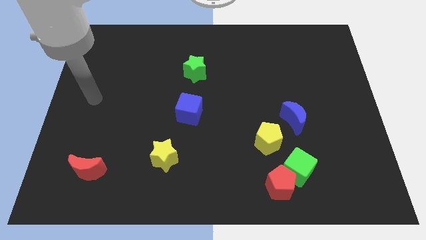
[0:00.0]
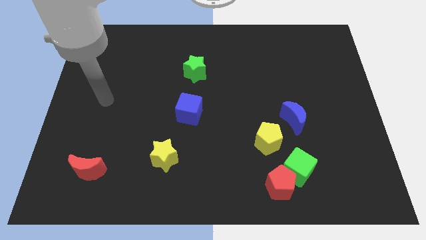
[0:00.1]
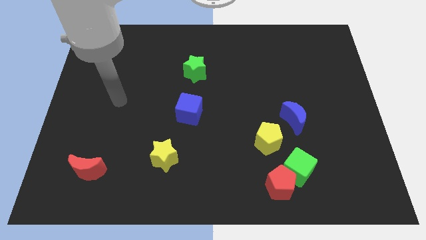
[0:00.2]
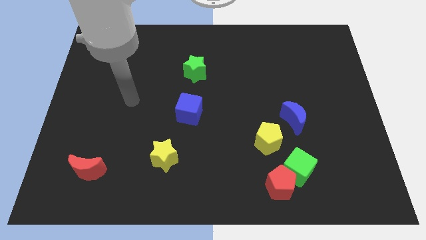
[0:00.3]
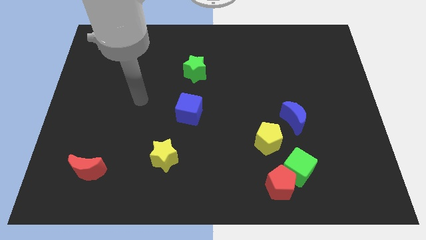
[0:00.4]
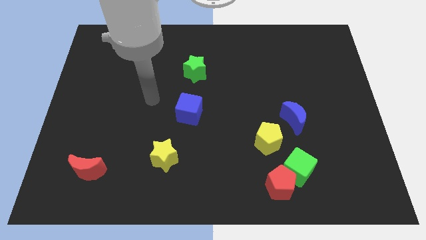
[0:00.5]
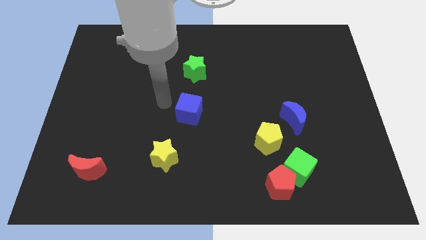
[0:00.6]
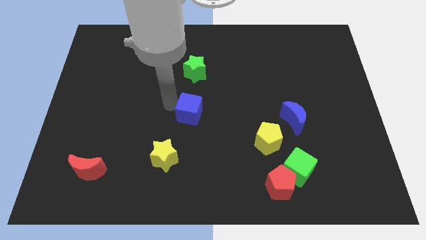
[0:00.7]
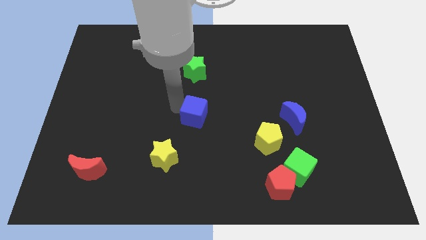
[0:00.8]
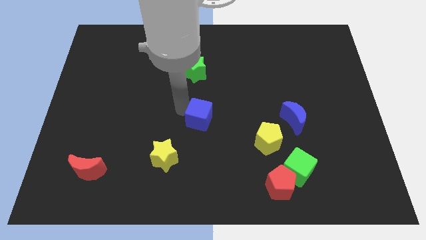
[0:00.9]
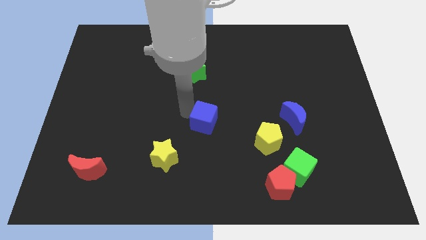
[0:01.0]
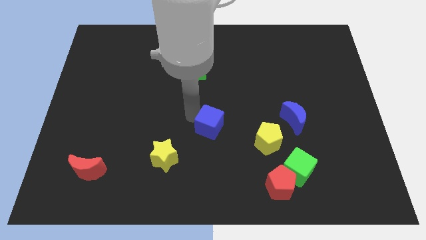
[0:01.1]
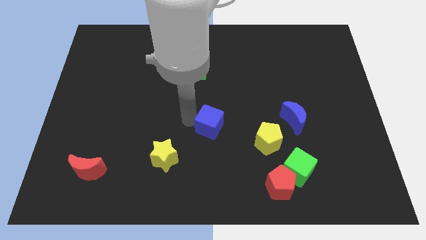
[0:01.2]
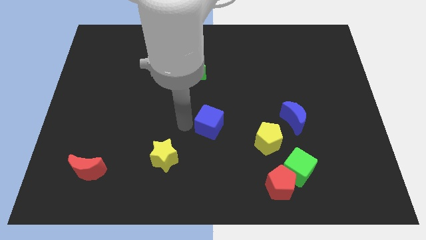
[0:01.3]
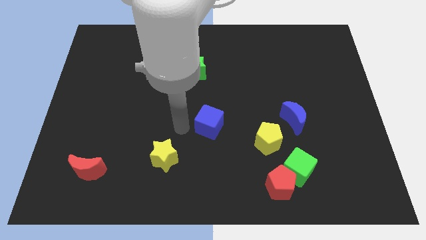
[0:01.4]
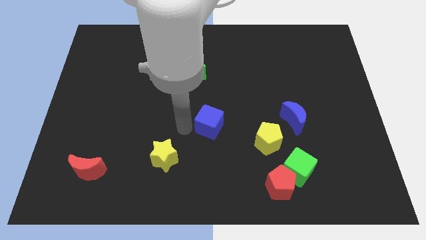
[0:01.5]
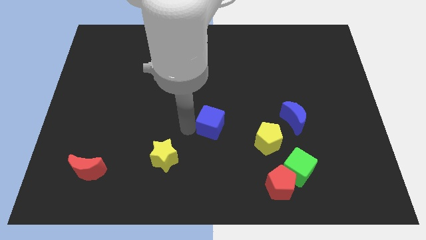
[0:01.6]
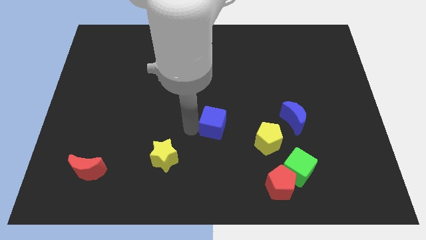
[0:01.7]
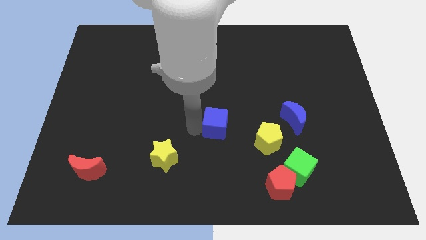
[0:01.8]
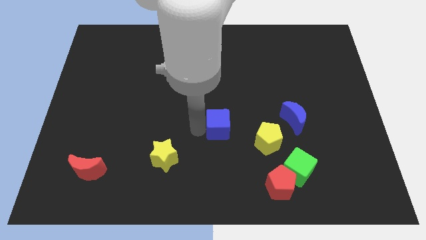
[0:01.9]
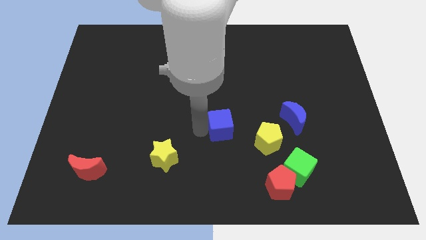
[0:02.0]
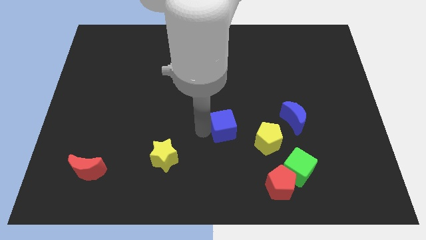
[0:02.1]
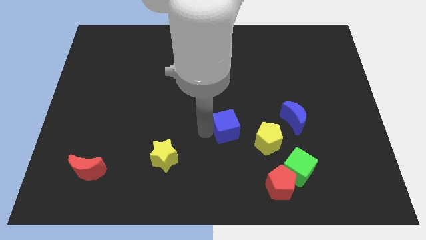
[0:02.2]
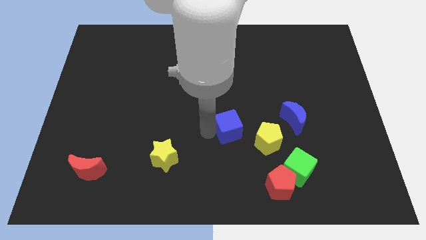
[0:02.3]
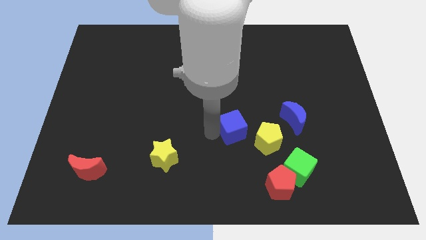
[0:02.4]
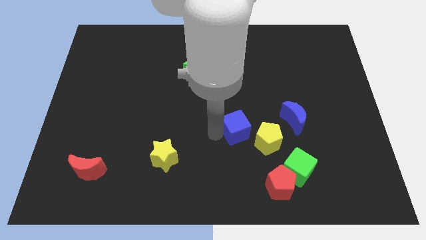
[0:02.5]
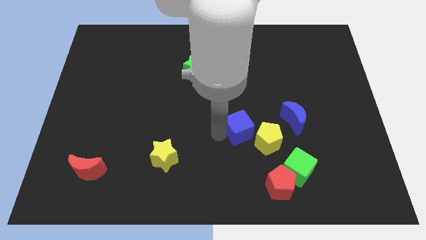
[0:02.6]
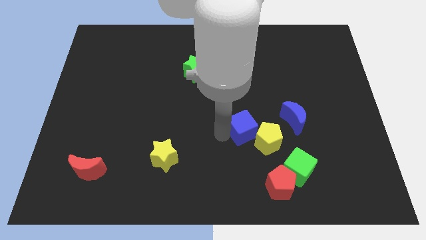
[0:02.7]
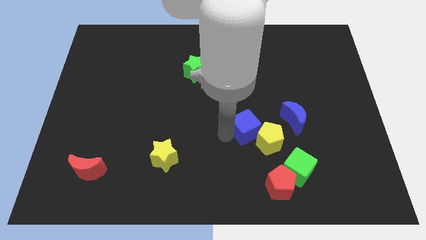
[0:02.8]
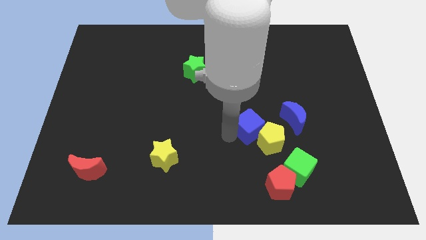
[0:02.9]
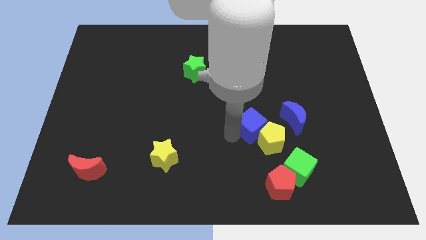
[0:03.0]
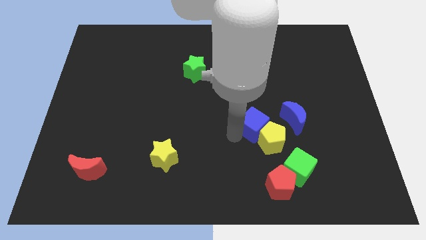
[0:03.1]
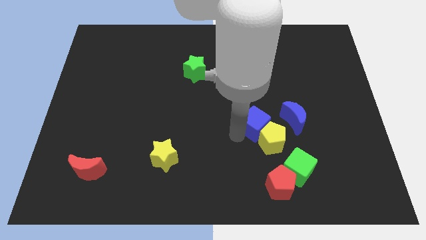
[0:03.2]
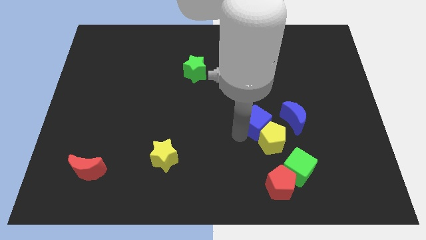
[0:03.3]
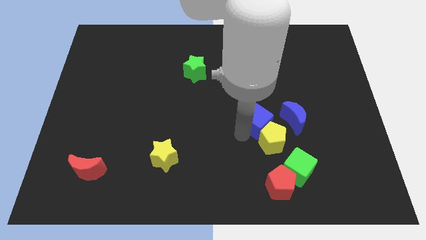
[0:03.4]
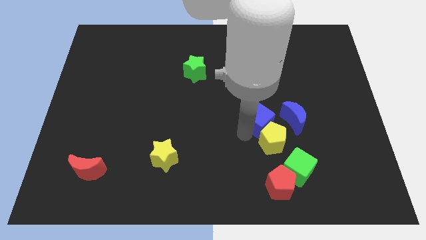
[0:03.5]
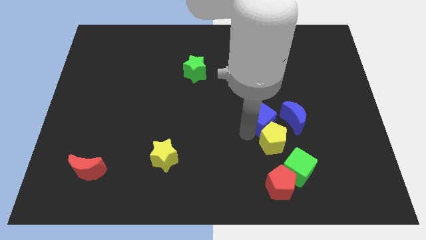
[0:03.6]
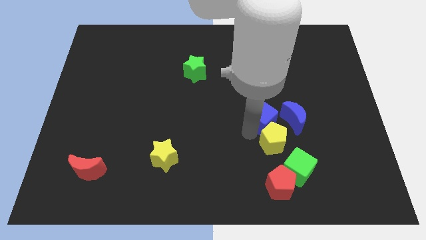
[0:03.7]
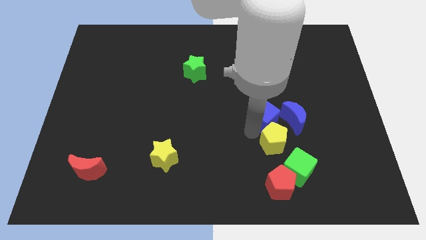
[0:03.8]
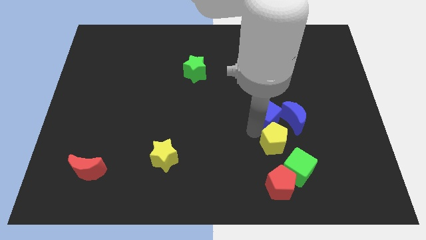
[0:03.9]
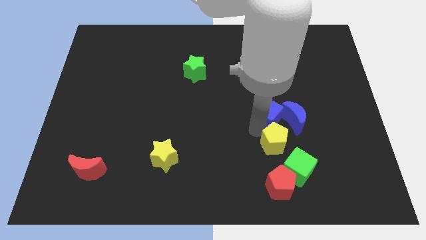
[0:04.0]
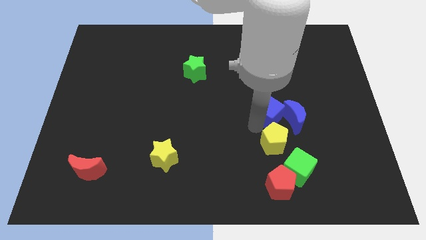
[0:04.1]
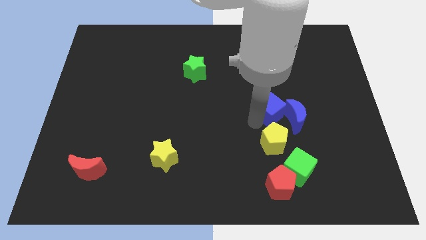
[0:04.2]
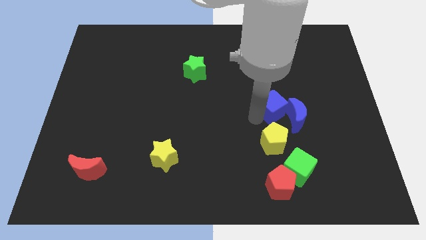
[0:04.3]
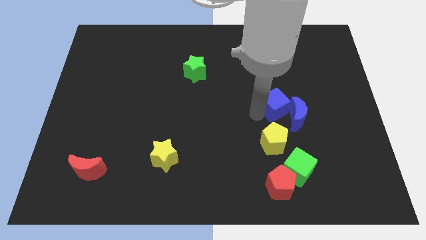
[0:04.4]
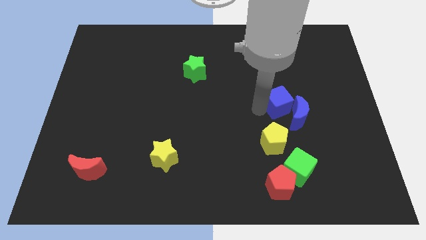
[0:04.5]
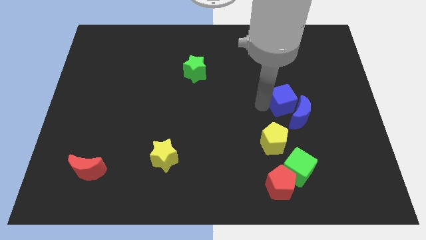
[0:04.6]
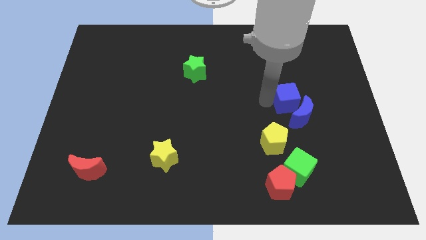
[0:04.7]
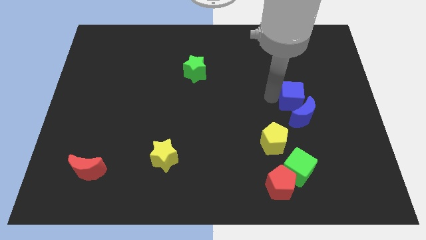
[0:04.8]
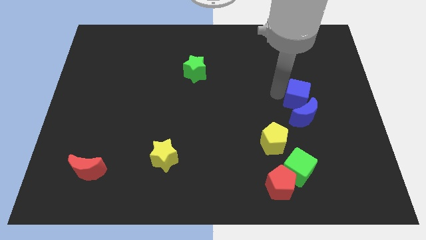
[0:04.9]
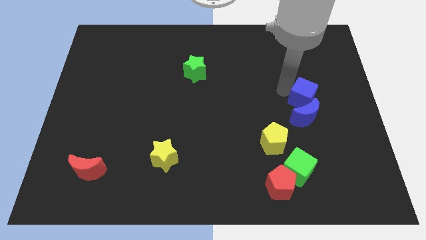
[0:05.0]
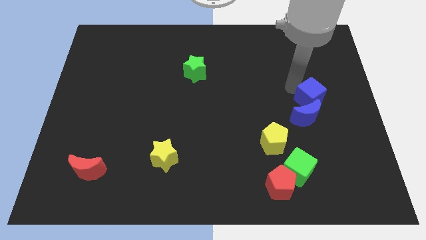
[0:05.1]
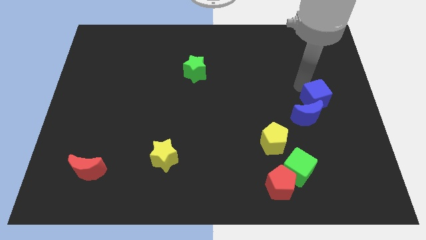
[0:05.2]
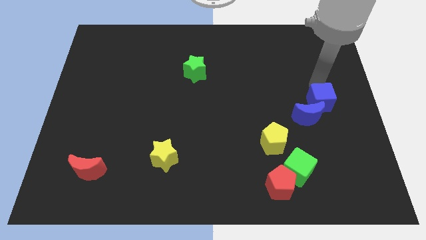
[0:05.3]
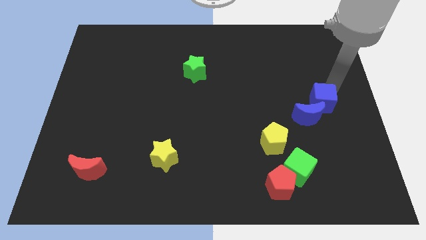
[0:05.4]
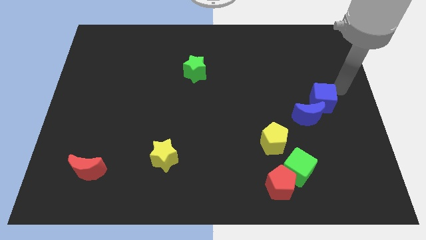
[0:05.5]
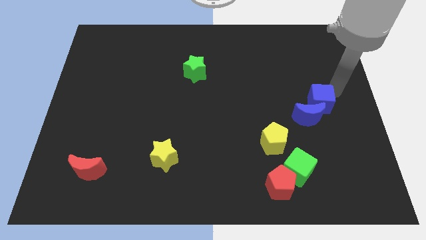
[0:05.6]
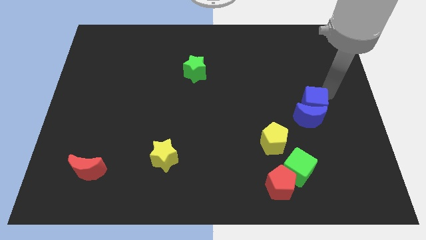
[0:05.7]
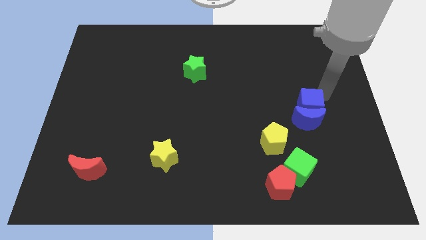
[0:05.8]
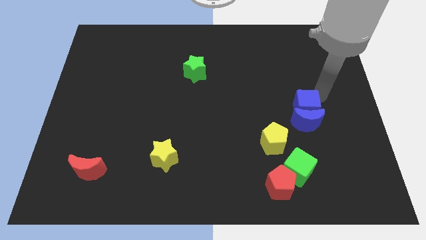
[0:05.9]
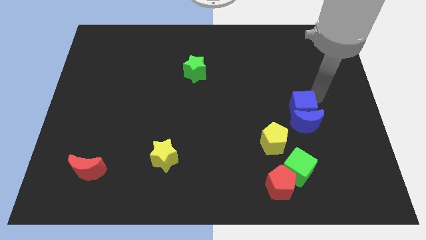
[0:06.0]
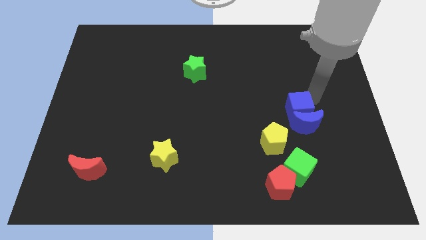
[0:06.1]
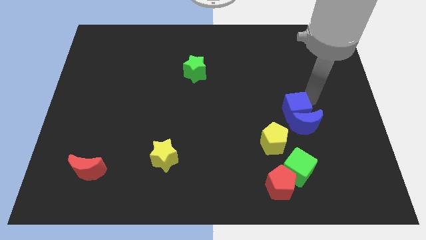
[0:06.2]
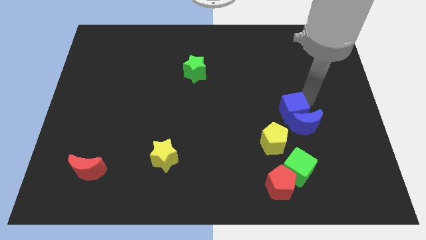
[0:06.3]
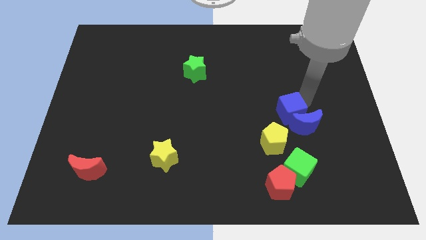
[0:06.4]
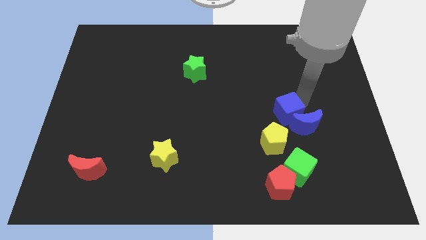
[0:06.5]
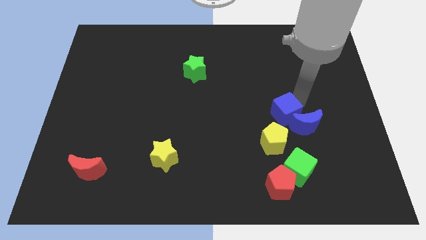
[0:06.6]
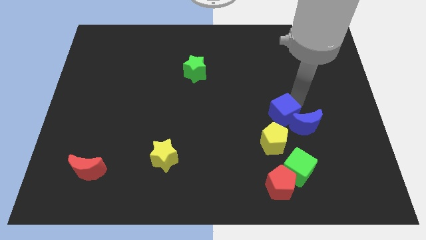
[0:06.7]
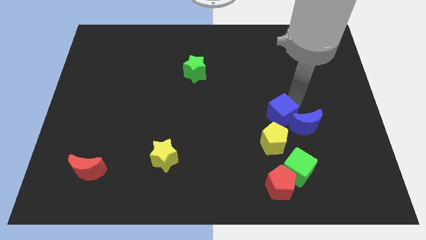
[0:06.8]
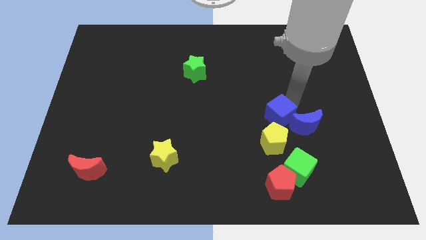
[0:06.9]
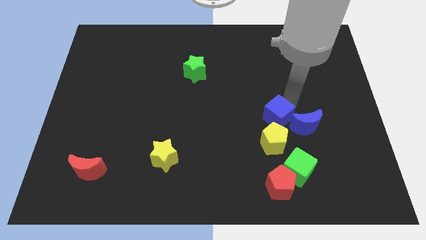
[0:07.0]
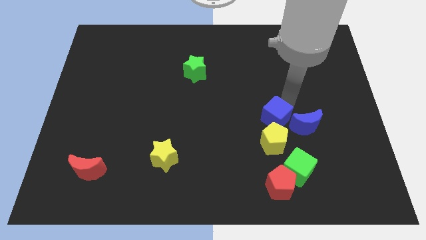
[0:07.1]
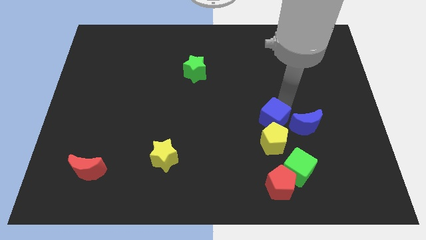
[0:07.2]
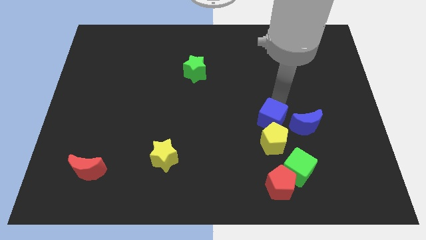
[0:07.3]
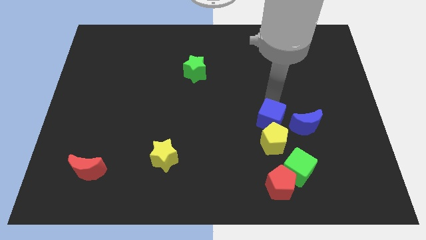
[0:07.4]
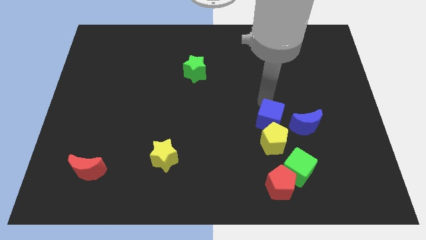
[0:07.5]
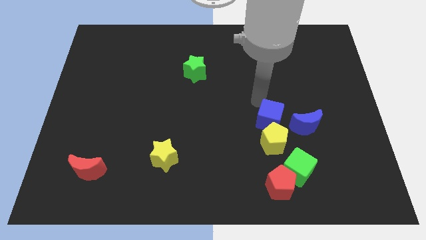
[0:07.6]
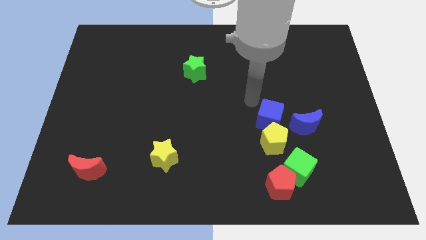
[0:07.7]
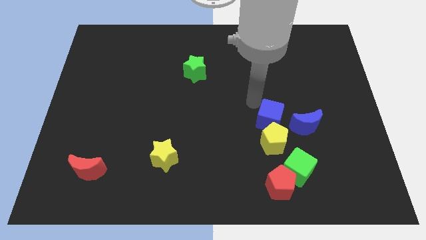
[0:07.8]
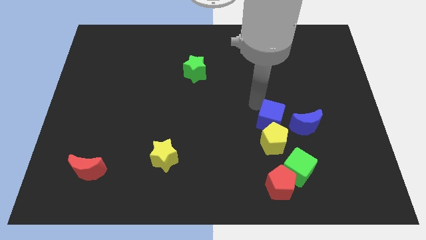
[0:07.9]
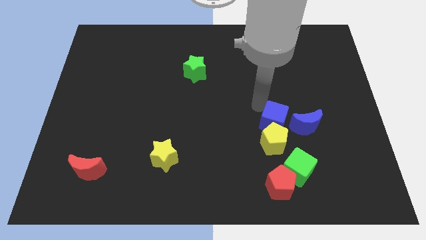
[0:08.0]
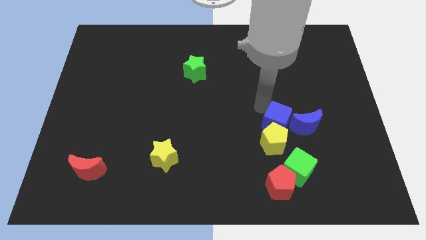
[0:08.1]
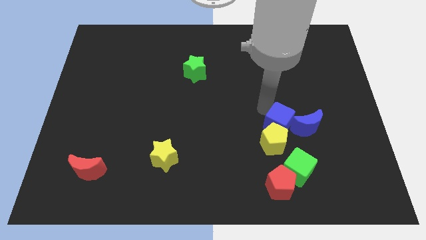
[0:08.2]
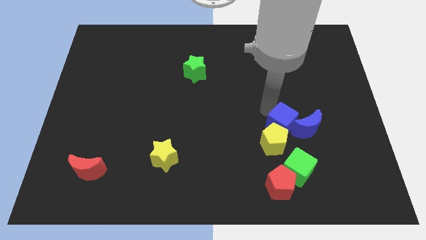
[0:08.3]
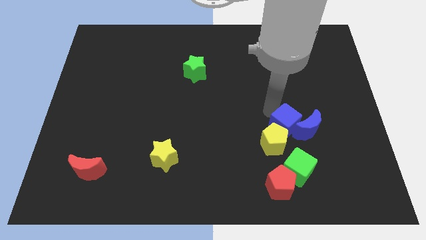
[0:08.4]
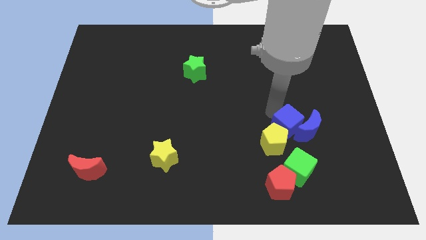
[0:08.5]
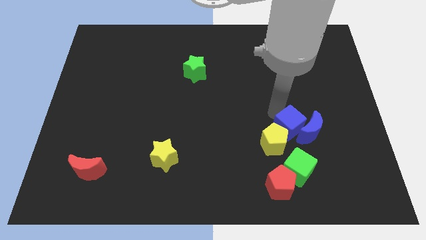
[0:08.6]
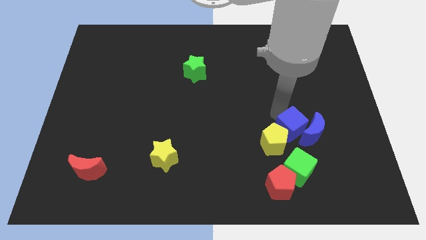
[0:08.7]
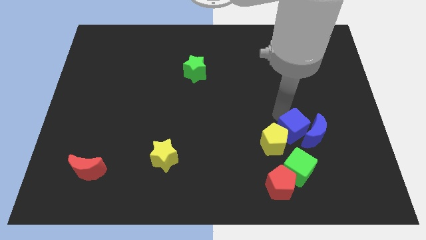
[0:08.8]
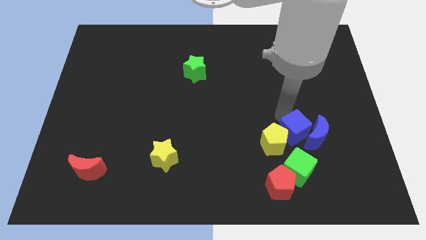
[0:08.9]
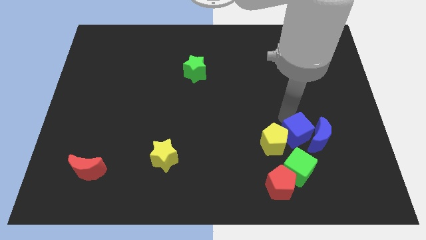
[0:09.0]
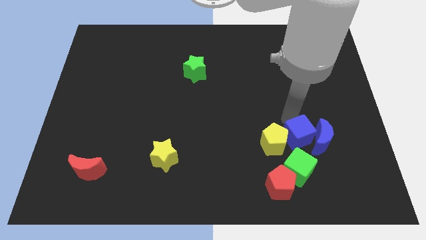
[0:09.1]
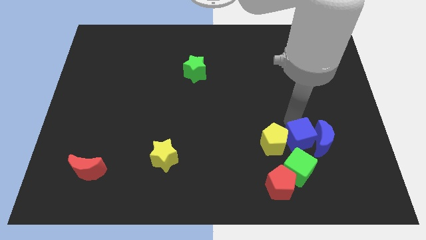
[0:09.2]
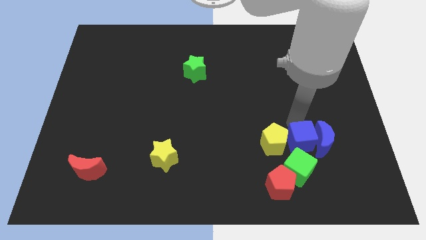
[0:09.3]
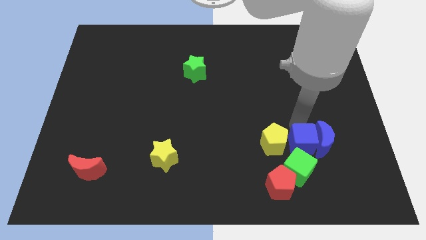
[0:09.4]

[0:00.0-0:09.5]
push the blue cube diagonally up and to the right of the red pentagon
